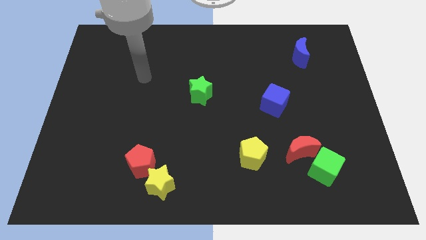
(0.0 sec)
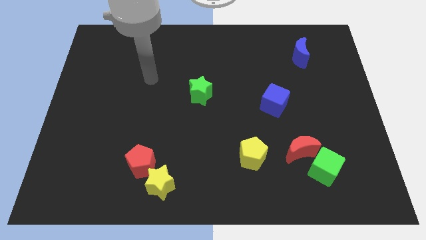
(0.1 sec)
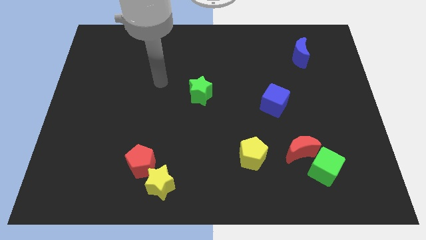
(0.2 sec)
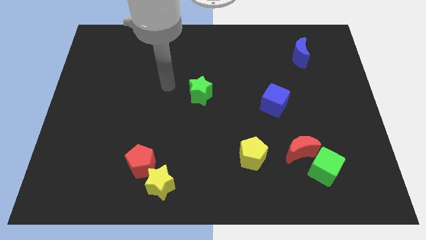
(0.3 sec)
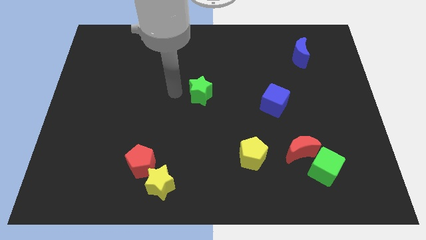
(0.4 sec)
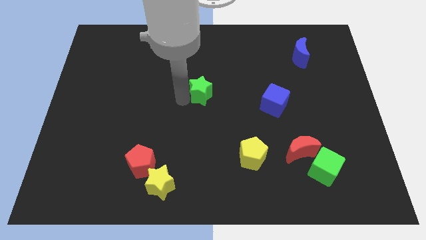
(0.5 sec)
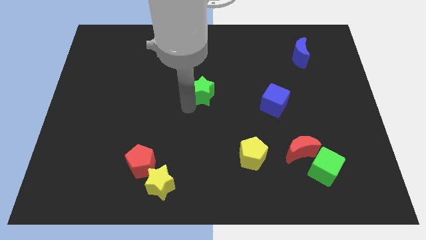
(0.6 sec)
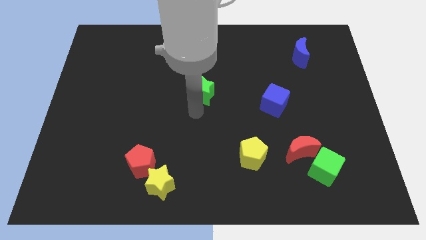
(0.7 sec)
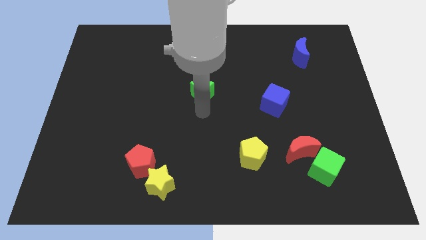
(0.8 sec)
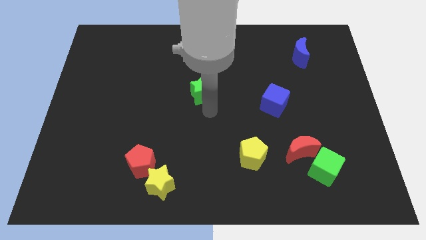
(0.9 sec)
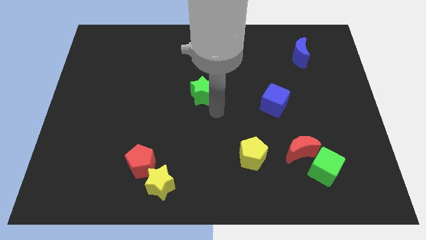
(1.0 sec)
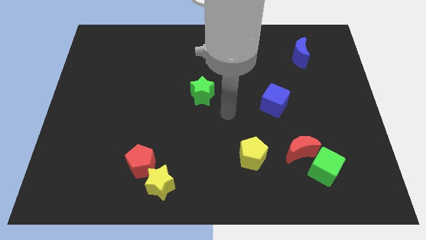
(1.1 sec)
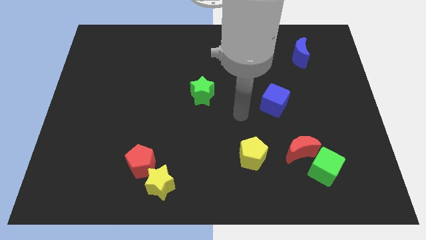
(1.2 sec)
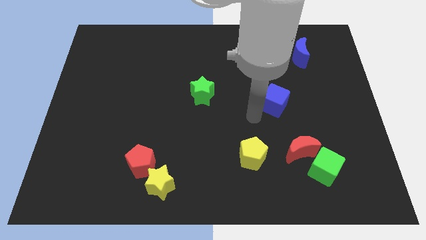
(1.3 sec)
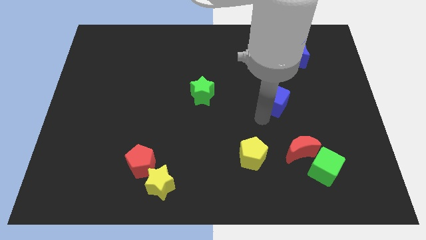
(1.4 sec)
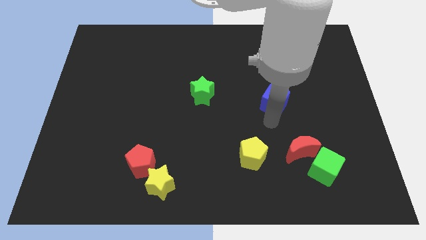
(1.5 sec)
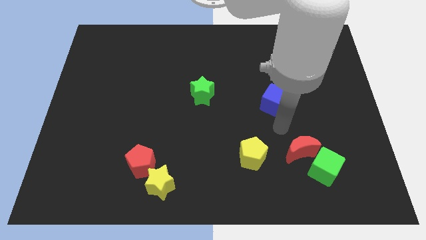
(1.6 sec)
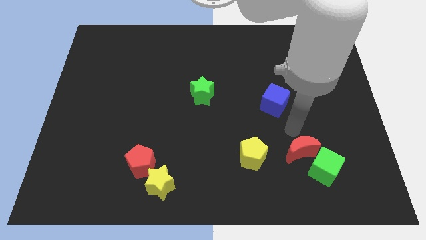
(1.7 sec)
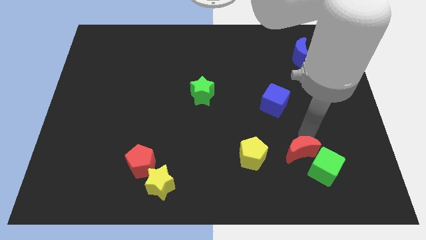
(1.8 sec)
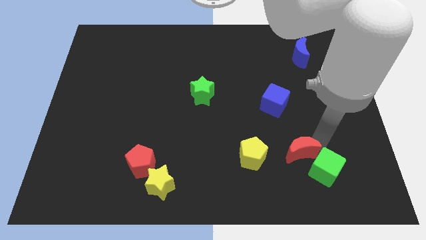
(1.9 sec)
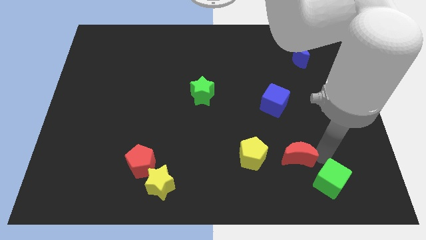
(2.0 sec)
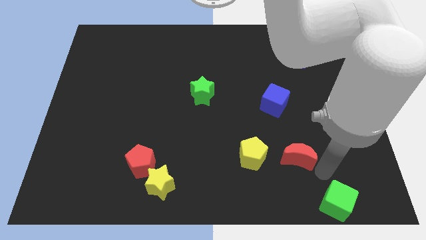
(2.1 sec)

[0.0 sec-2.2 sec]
separate the red moon from the green cube

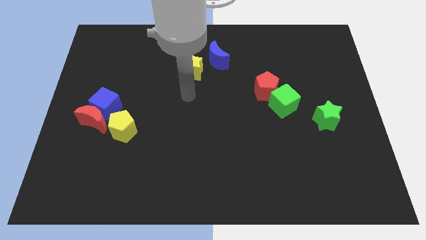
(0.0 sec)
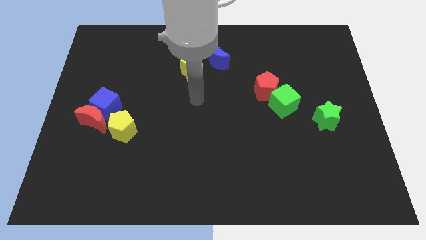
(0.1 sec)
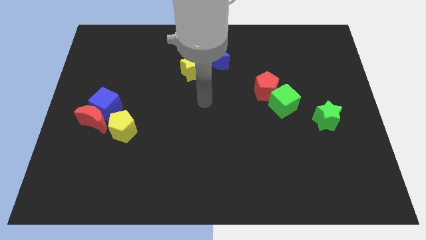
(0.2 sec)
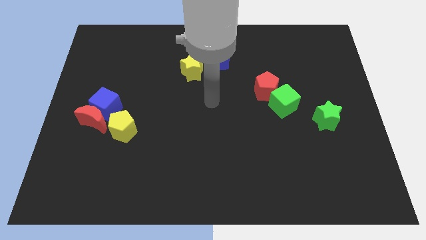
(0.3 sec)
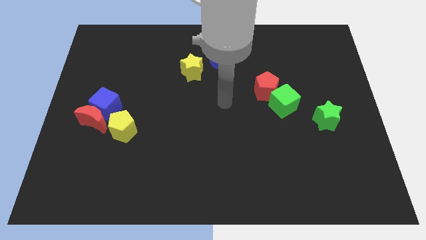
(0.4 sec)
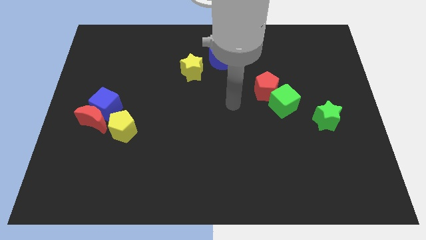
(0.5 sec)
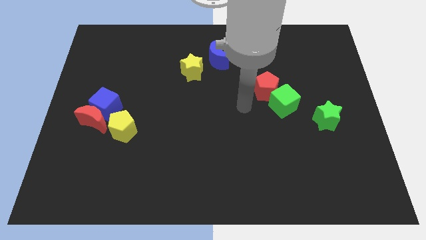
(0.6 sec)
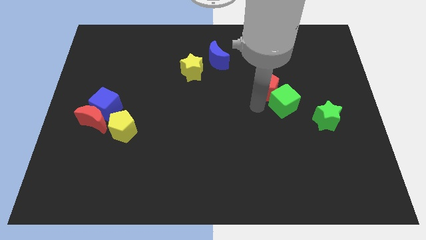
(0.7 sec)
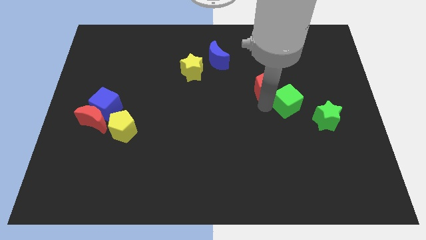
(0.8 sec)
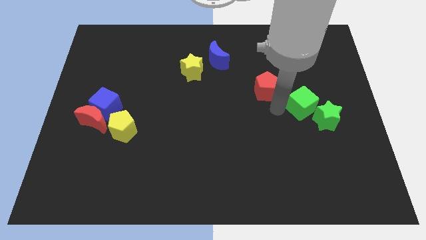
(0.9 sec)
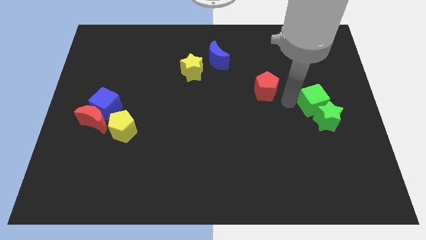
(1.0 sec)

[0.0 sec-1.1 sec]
move the red pentagon away from the green cube

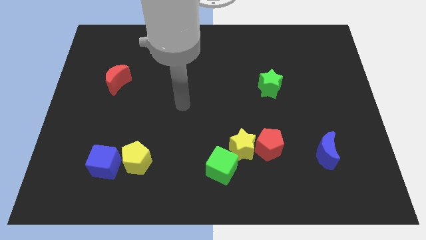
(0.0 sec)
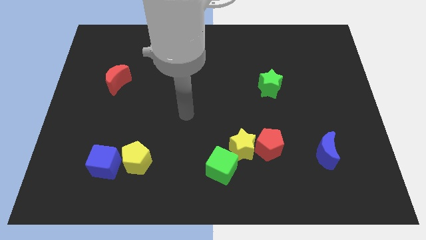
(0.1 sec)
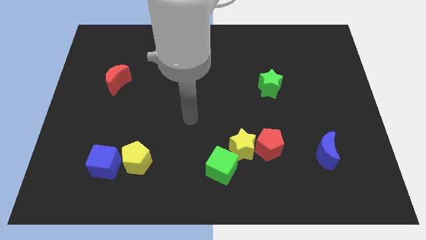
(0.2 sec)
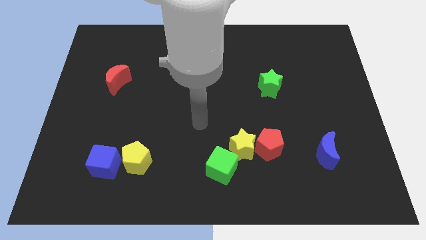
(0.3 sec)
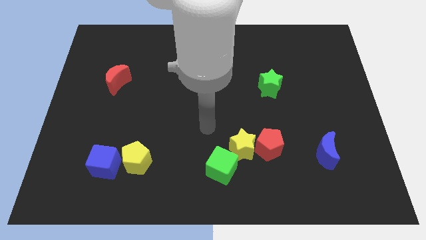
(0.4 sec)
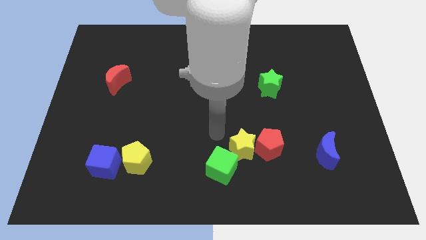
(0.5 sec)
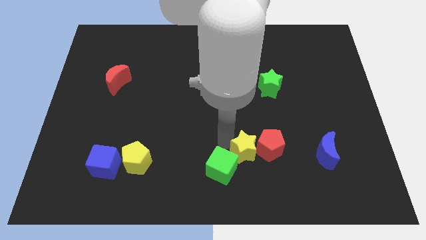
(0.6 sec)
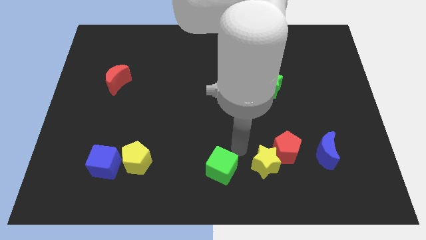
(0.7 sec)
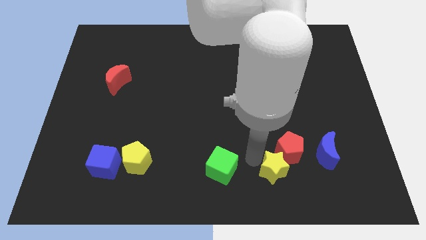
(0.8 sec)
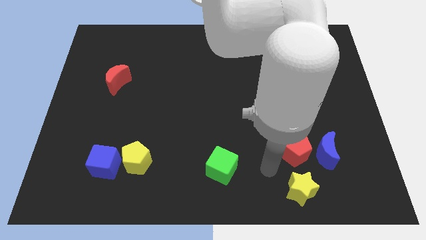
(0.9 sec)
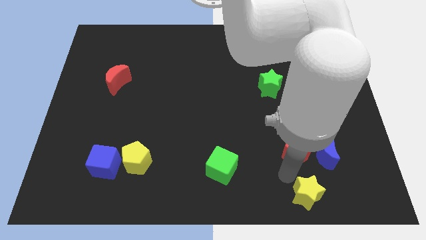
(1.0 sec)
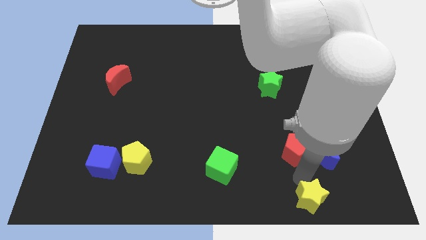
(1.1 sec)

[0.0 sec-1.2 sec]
pull the red pentagon apart from the yellow star

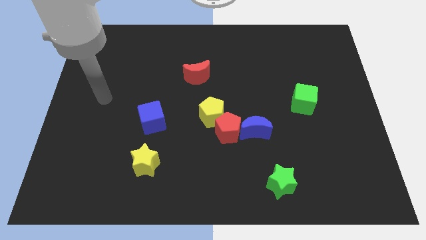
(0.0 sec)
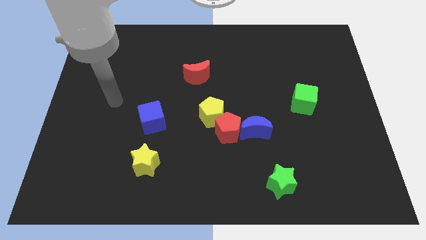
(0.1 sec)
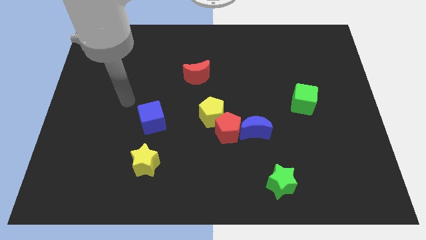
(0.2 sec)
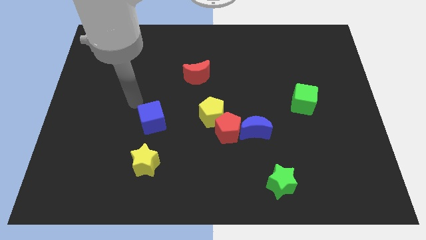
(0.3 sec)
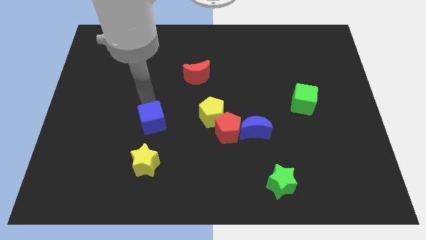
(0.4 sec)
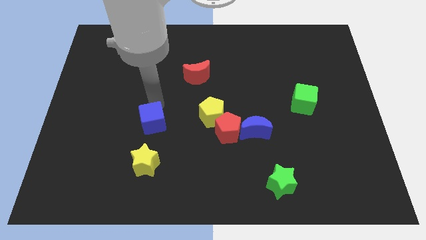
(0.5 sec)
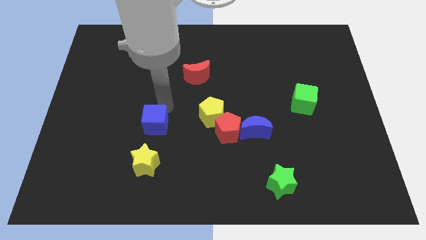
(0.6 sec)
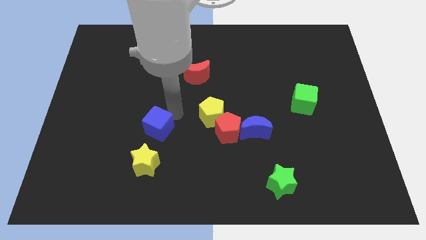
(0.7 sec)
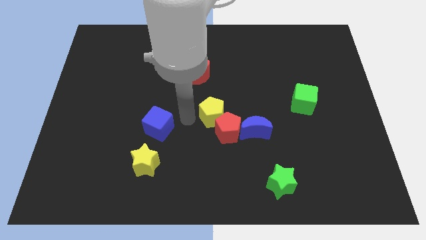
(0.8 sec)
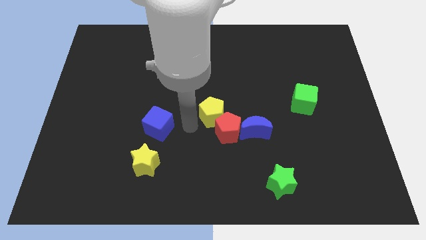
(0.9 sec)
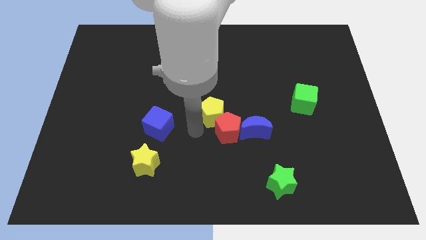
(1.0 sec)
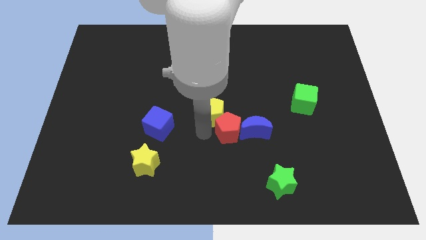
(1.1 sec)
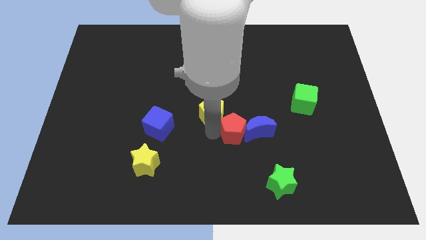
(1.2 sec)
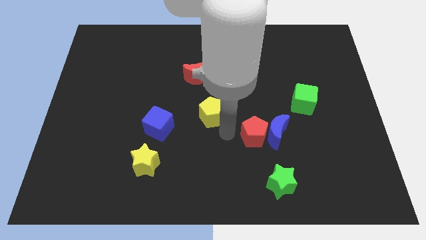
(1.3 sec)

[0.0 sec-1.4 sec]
separate the yellow pentagon from the red pentagon

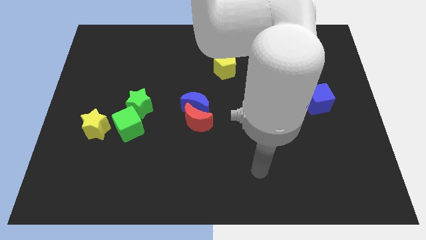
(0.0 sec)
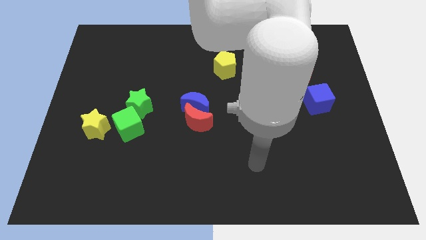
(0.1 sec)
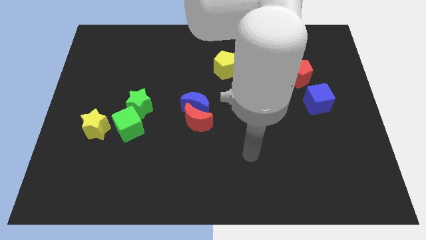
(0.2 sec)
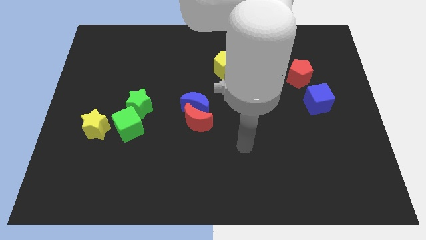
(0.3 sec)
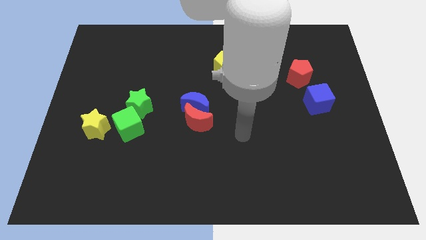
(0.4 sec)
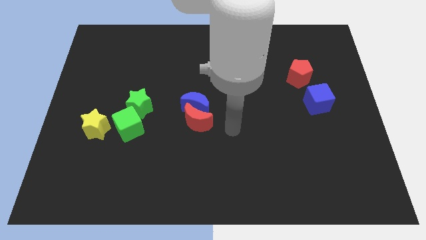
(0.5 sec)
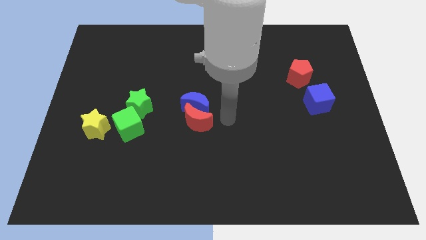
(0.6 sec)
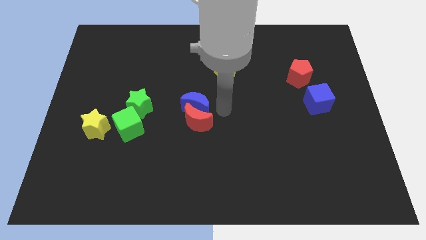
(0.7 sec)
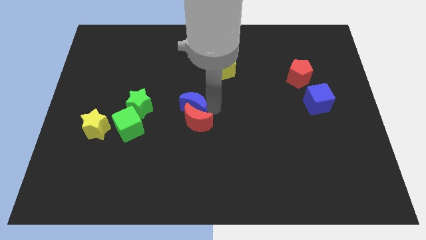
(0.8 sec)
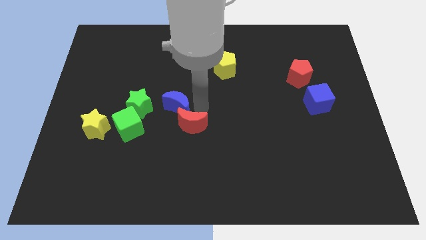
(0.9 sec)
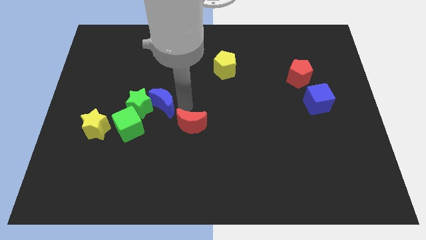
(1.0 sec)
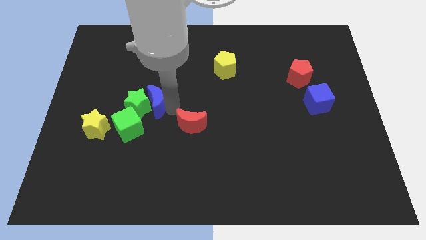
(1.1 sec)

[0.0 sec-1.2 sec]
separate the red moon from the blue moon

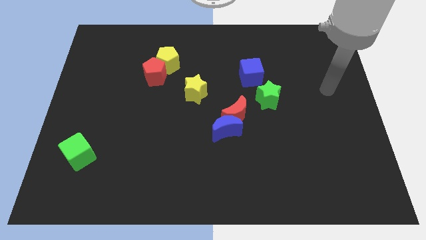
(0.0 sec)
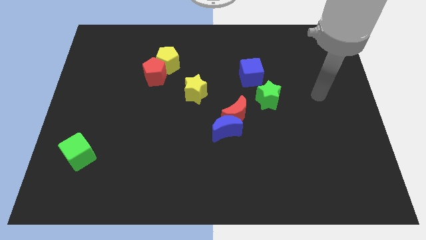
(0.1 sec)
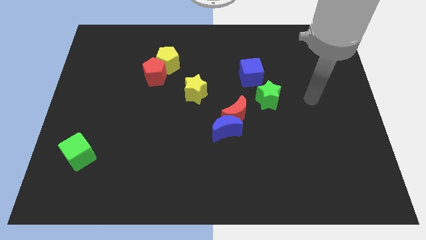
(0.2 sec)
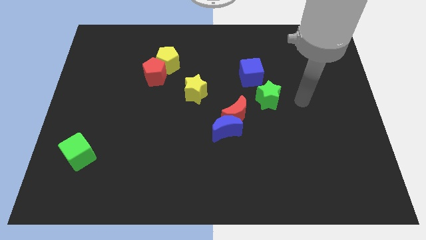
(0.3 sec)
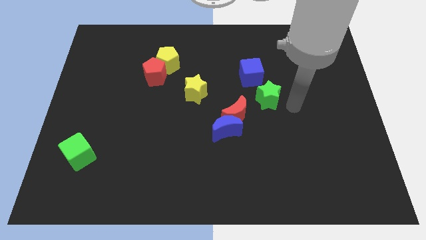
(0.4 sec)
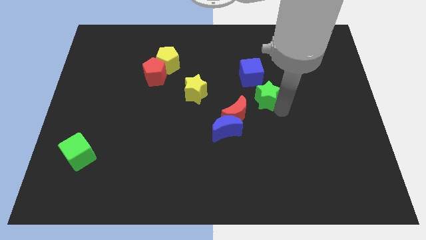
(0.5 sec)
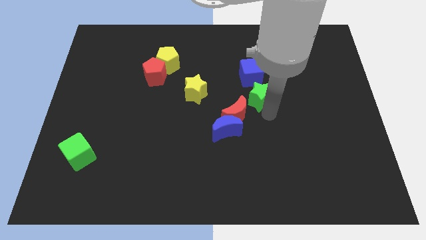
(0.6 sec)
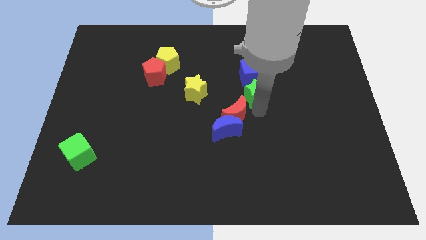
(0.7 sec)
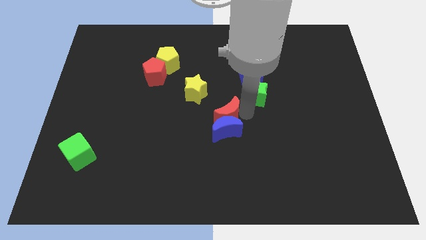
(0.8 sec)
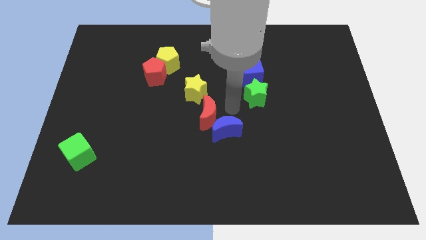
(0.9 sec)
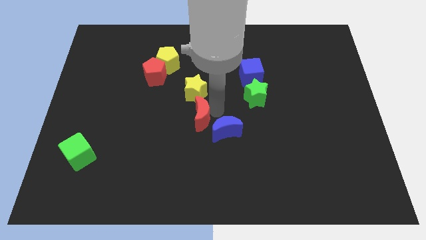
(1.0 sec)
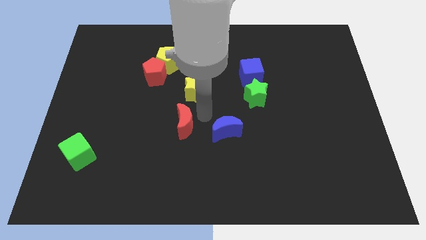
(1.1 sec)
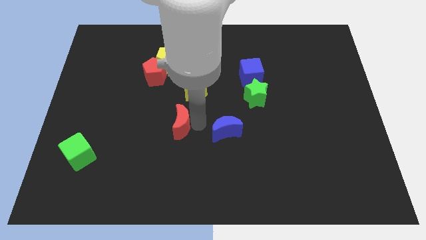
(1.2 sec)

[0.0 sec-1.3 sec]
move the blue moon away from the red moon

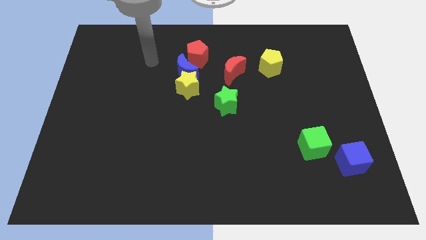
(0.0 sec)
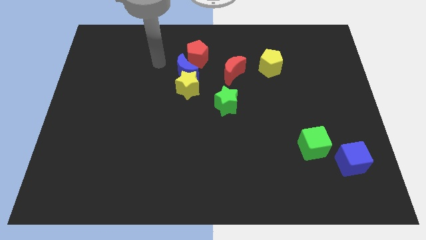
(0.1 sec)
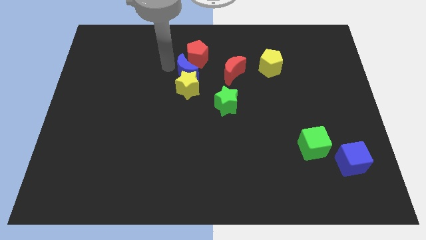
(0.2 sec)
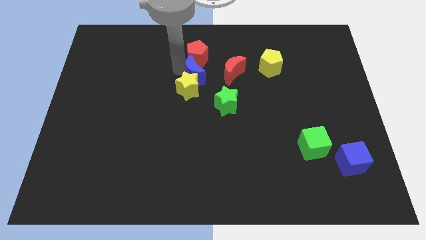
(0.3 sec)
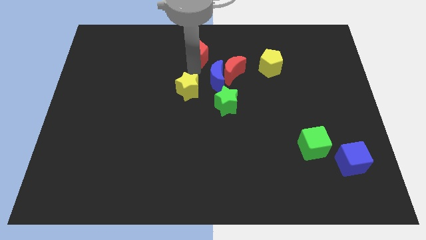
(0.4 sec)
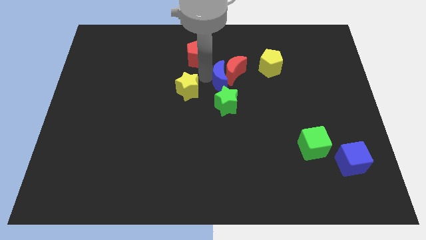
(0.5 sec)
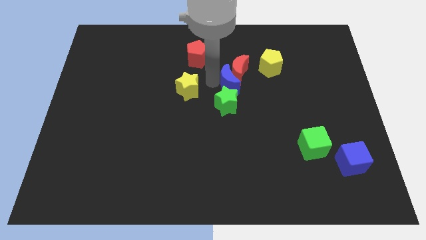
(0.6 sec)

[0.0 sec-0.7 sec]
separate the yellow star from the blue moon

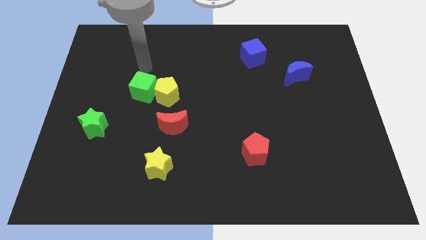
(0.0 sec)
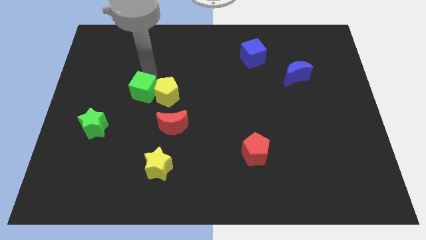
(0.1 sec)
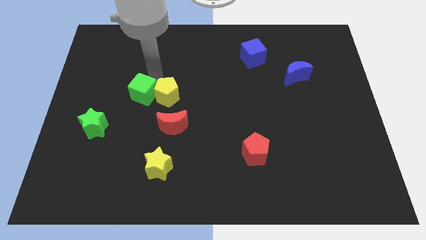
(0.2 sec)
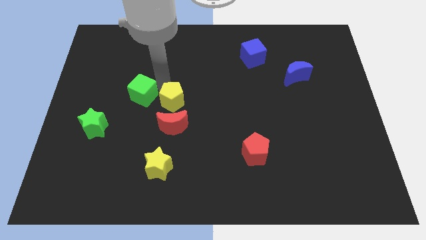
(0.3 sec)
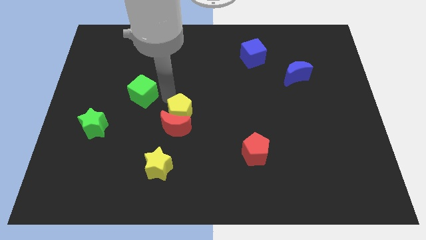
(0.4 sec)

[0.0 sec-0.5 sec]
separate the green cube from the yellow pentagon
